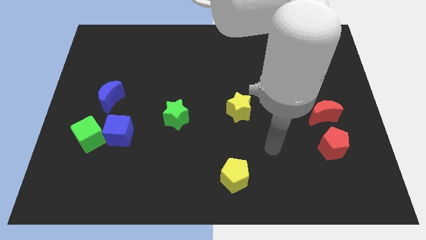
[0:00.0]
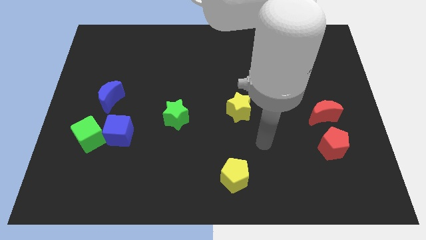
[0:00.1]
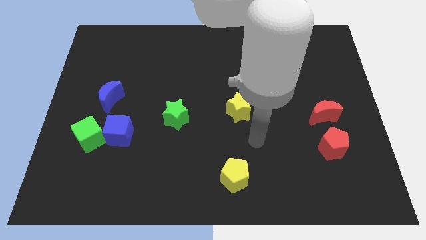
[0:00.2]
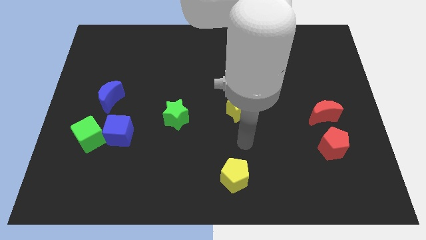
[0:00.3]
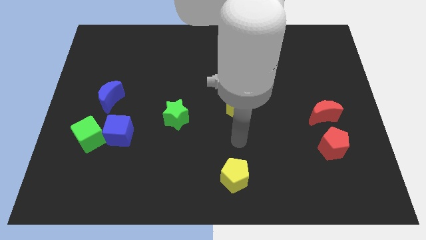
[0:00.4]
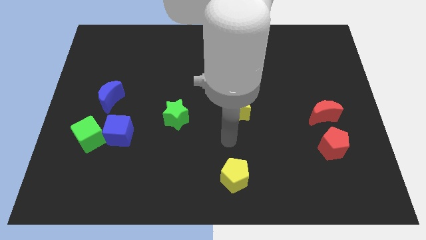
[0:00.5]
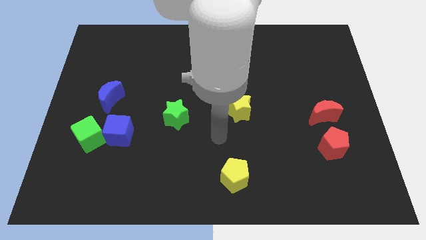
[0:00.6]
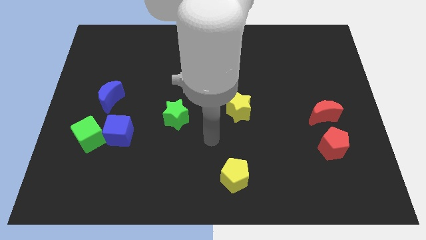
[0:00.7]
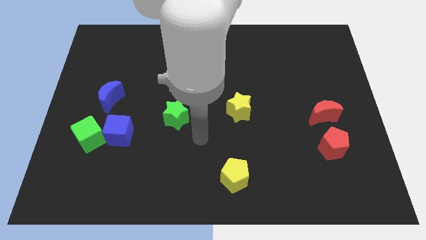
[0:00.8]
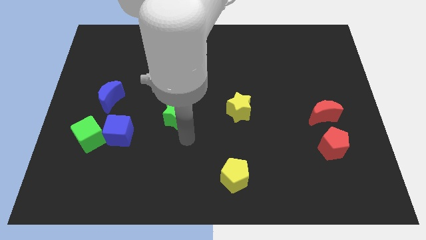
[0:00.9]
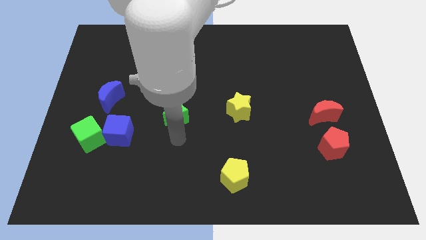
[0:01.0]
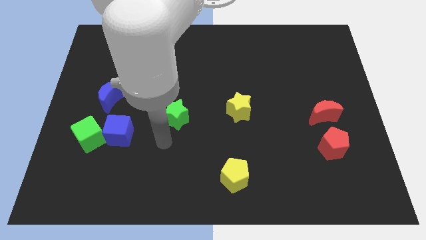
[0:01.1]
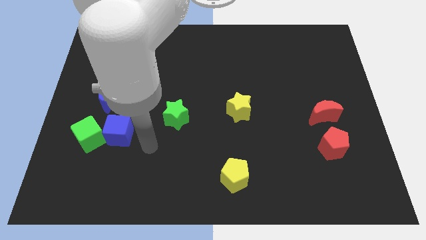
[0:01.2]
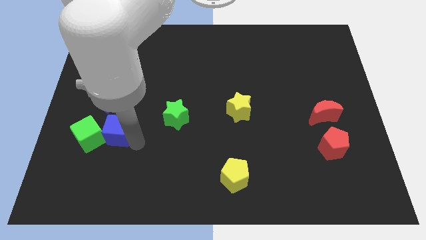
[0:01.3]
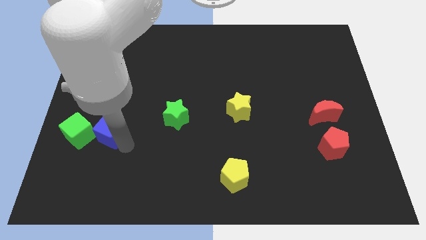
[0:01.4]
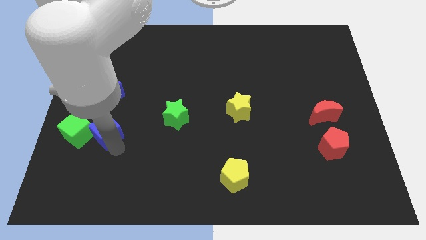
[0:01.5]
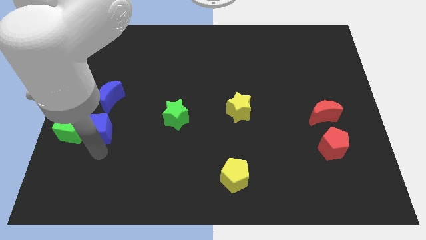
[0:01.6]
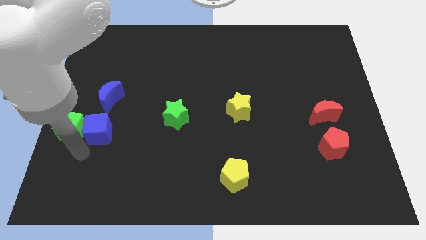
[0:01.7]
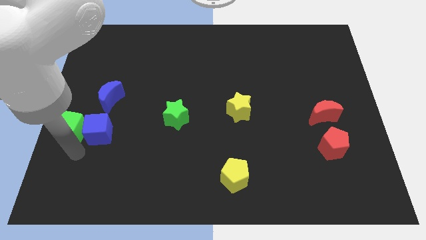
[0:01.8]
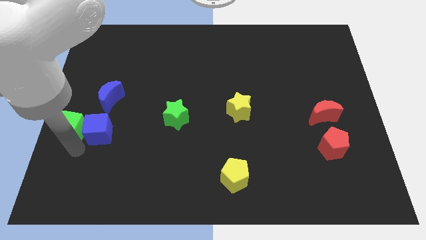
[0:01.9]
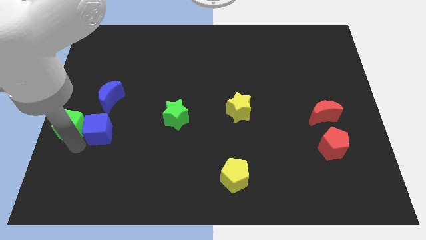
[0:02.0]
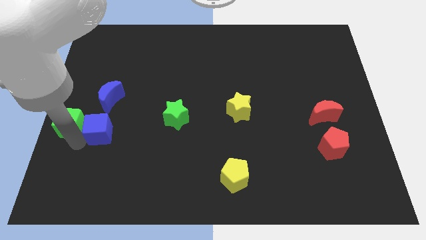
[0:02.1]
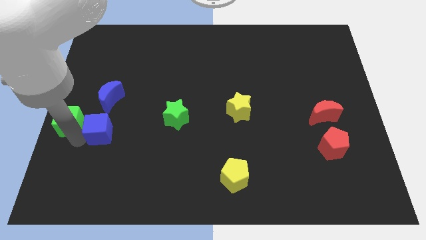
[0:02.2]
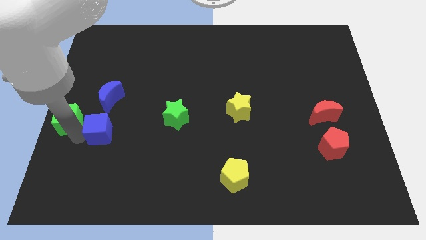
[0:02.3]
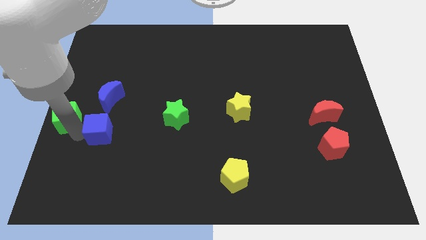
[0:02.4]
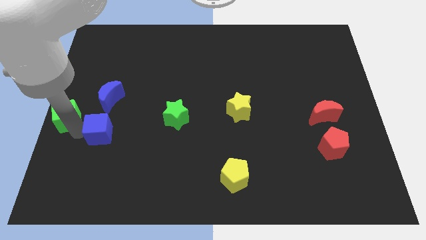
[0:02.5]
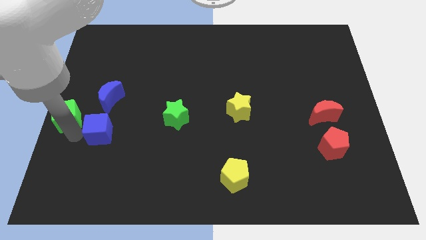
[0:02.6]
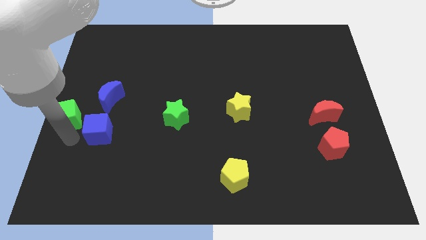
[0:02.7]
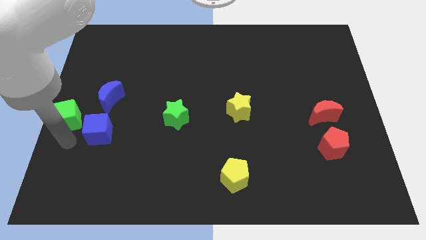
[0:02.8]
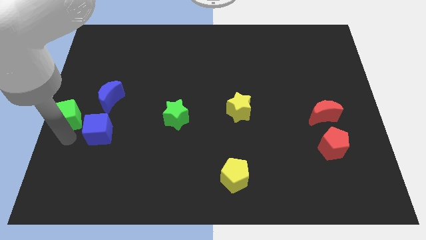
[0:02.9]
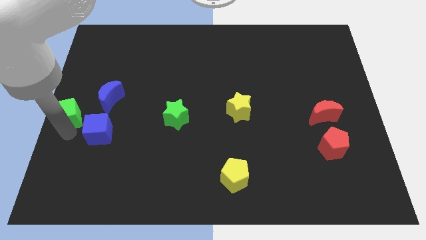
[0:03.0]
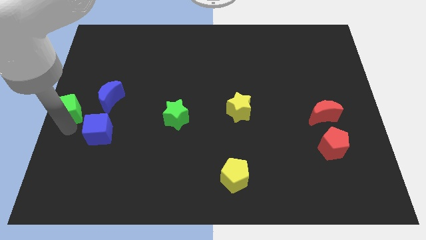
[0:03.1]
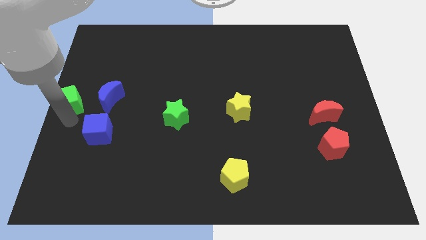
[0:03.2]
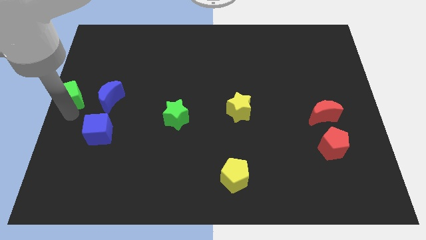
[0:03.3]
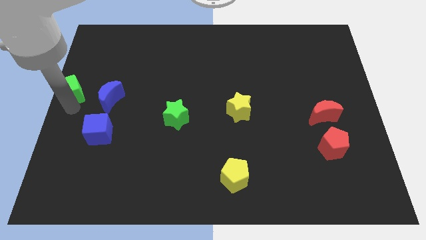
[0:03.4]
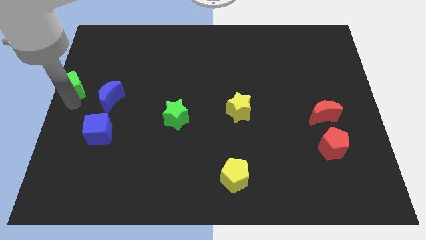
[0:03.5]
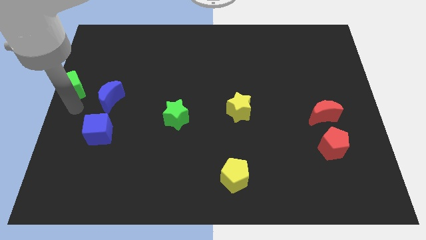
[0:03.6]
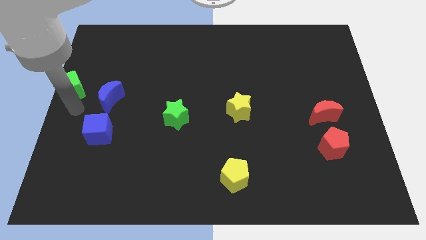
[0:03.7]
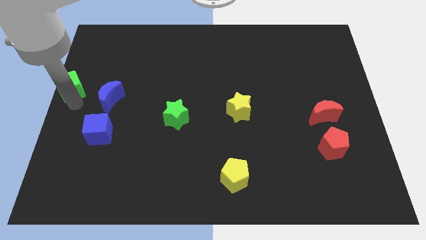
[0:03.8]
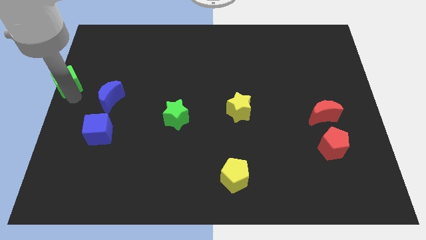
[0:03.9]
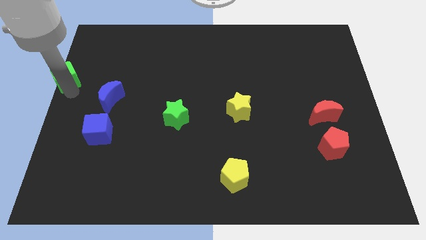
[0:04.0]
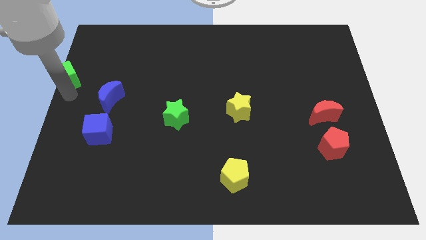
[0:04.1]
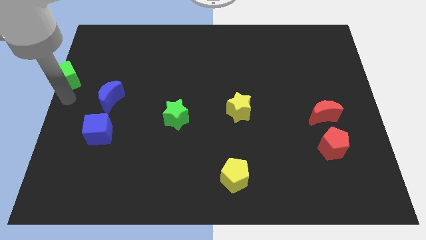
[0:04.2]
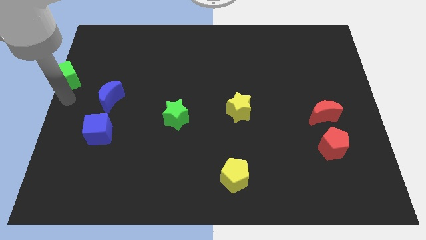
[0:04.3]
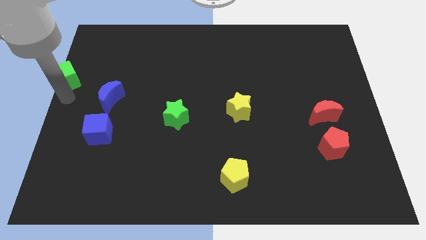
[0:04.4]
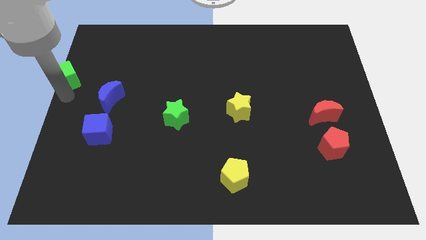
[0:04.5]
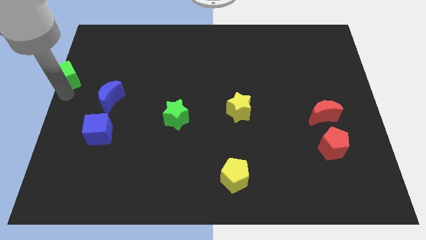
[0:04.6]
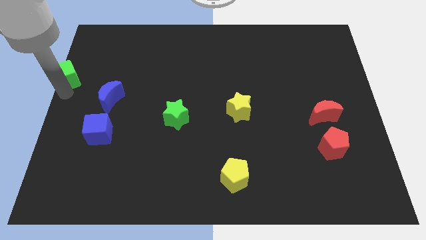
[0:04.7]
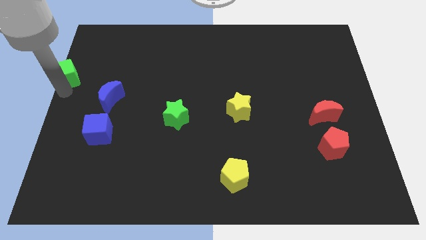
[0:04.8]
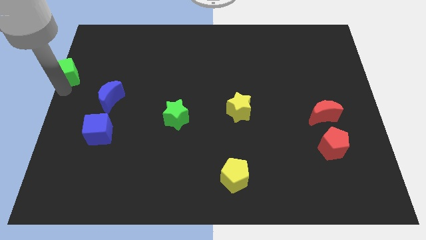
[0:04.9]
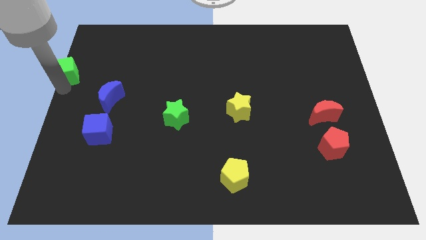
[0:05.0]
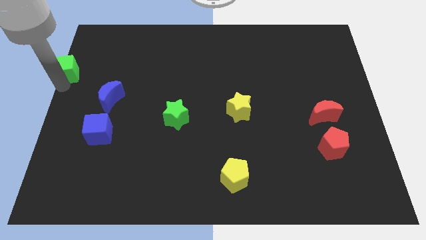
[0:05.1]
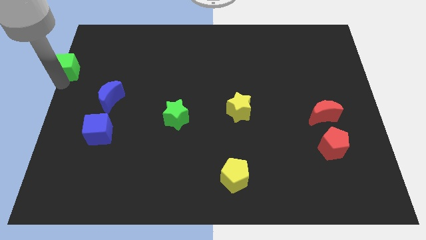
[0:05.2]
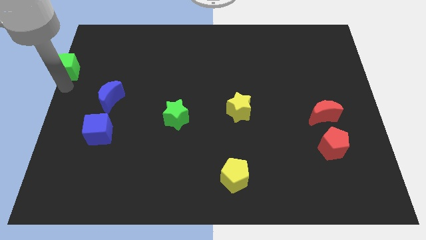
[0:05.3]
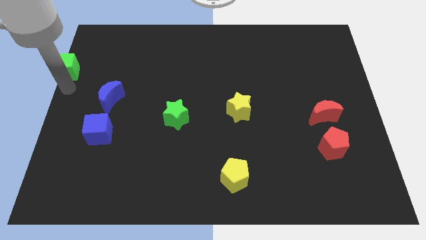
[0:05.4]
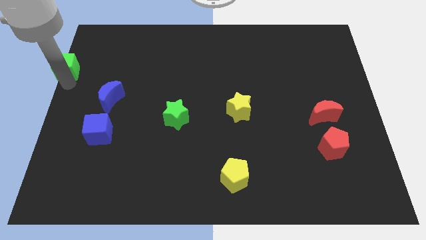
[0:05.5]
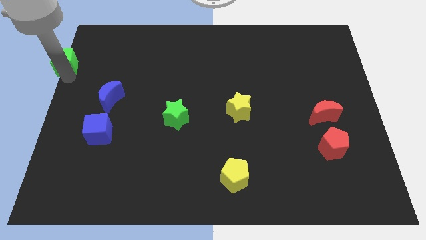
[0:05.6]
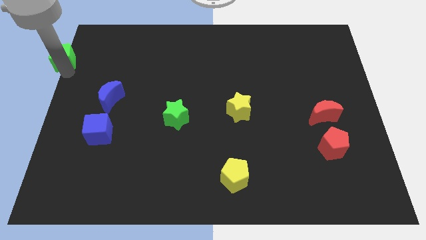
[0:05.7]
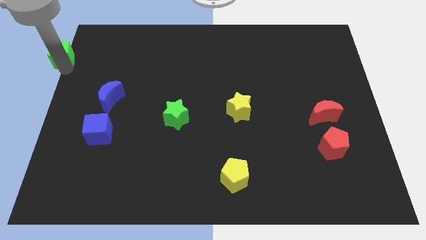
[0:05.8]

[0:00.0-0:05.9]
slide the green cube to the top left corner
